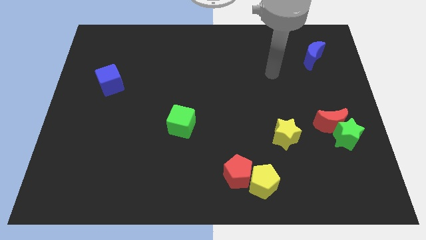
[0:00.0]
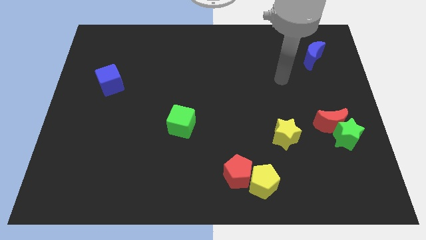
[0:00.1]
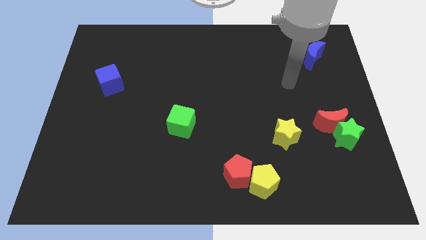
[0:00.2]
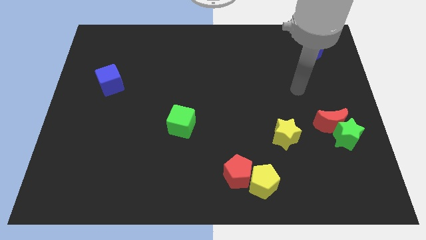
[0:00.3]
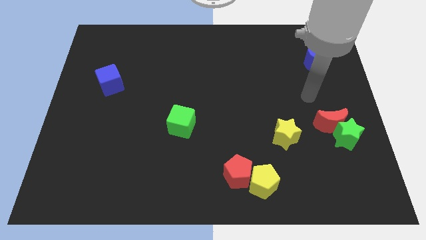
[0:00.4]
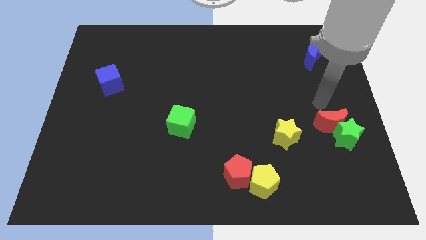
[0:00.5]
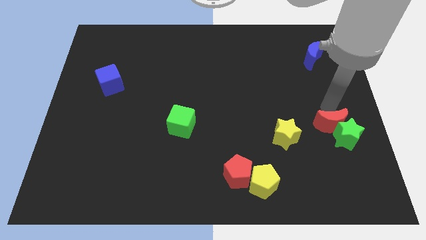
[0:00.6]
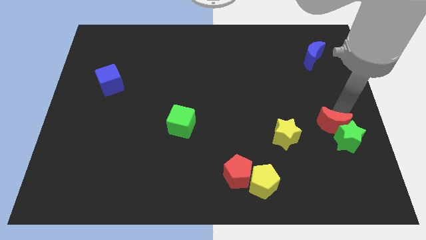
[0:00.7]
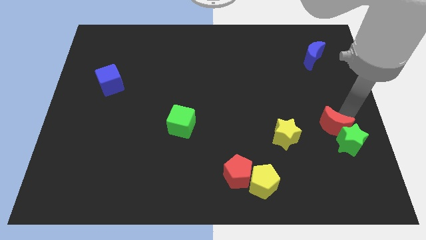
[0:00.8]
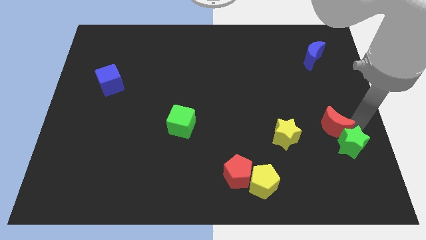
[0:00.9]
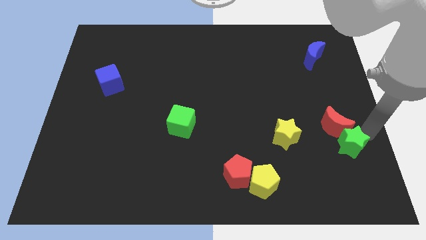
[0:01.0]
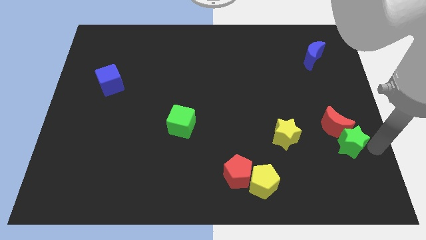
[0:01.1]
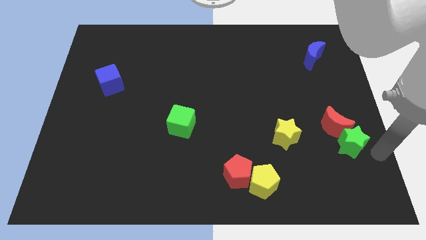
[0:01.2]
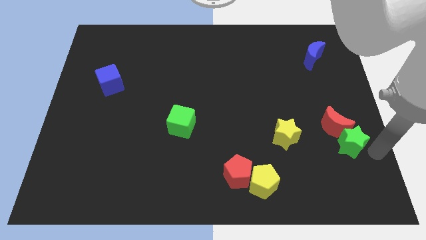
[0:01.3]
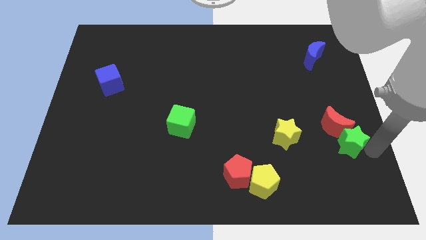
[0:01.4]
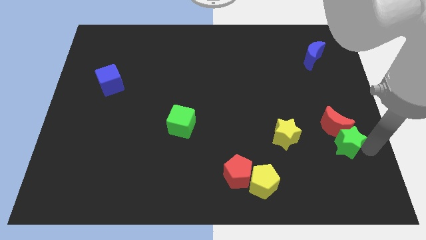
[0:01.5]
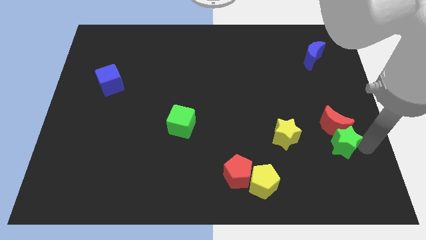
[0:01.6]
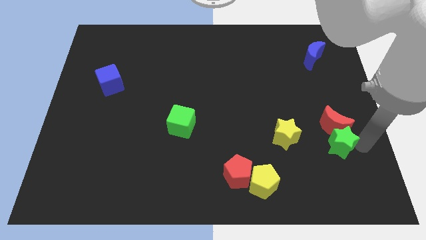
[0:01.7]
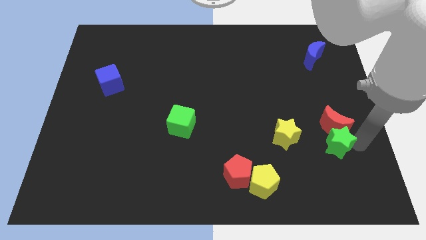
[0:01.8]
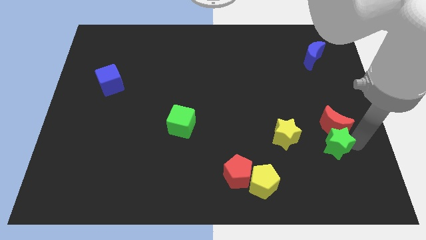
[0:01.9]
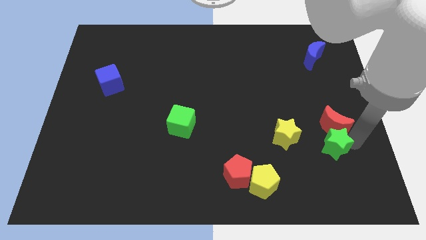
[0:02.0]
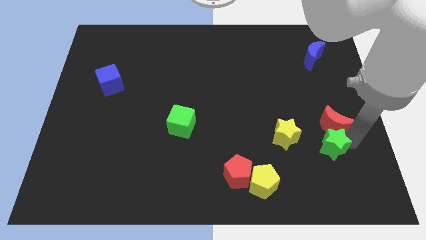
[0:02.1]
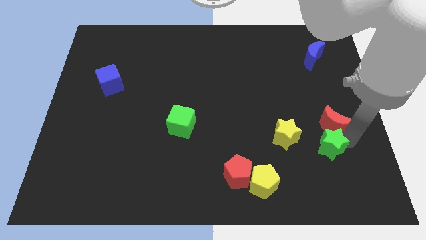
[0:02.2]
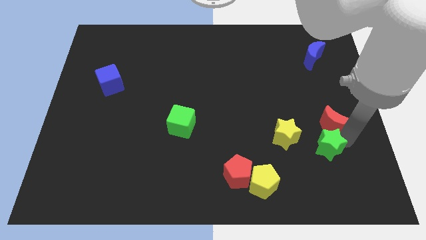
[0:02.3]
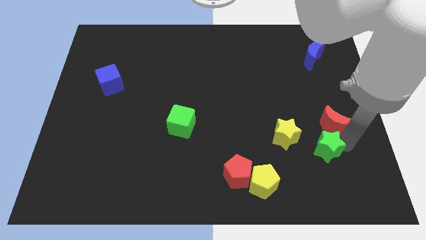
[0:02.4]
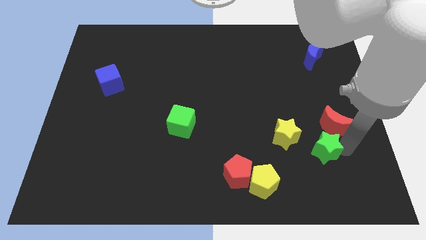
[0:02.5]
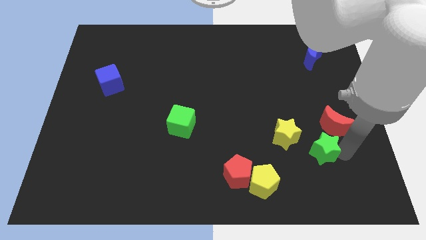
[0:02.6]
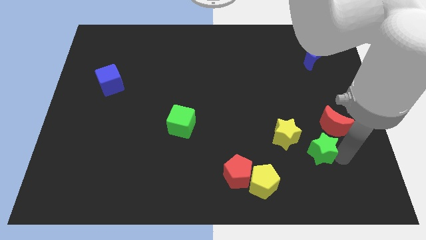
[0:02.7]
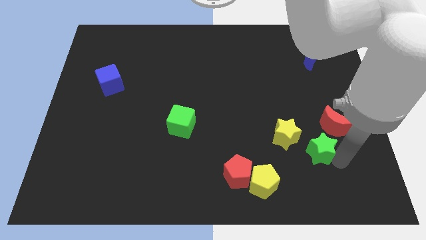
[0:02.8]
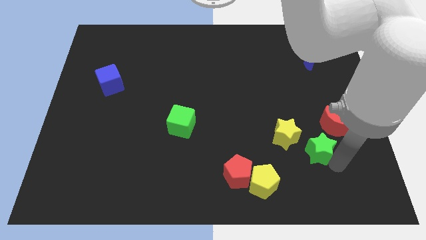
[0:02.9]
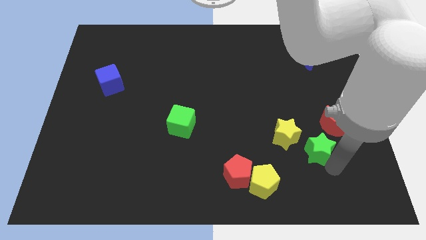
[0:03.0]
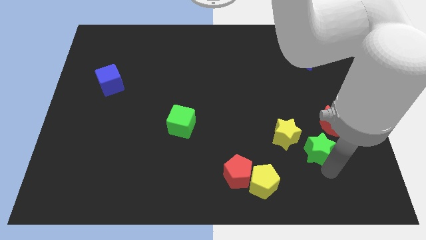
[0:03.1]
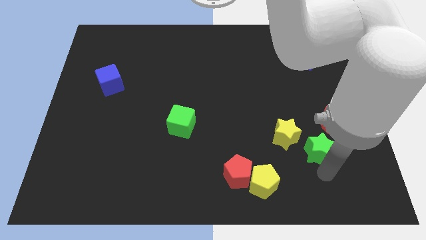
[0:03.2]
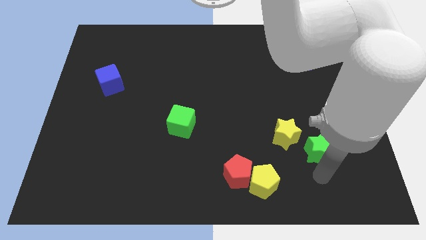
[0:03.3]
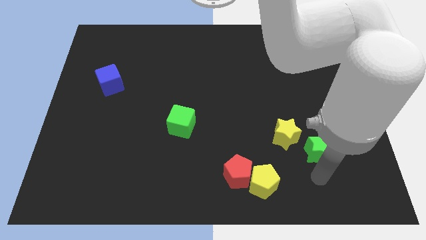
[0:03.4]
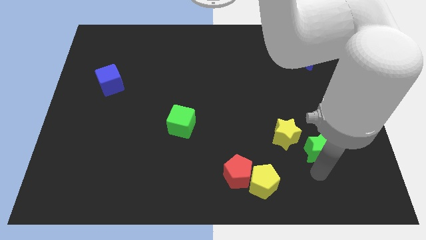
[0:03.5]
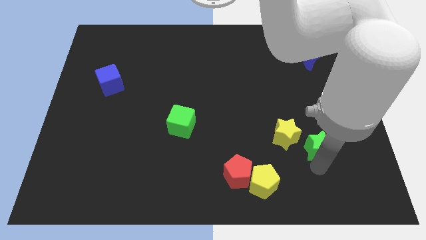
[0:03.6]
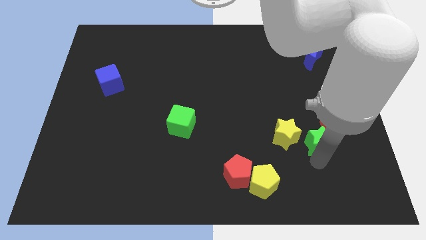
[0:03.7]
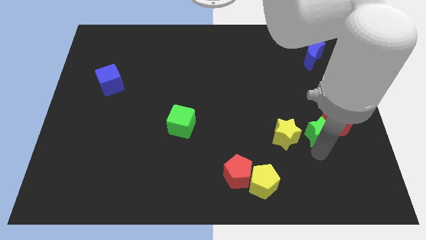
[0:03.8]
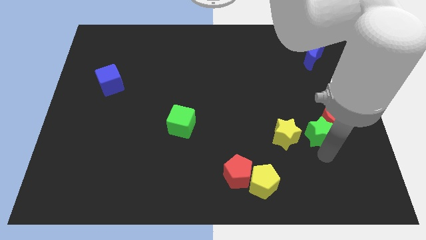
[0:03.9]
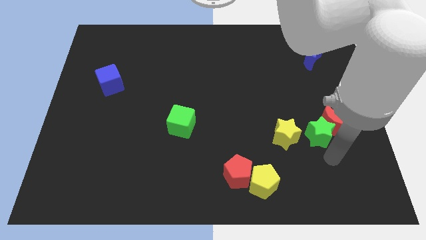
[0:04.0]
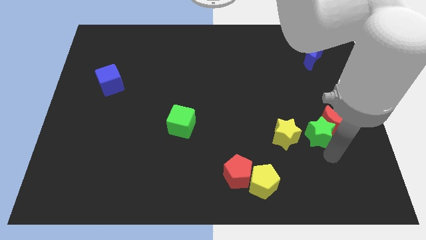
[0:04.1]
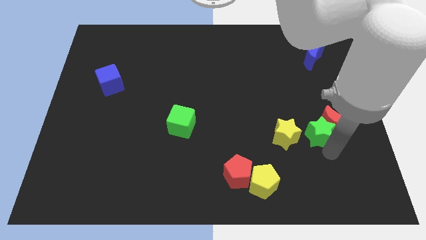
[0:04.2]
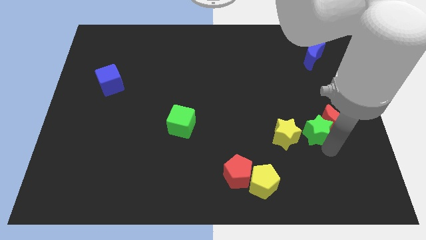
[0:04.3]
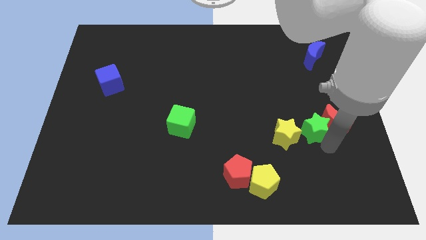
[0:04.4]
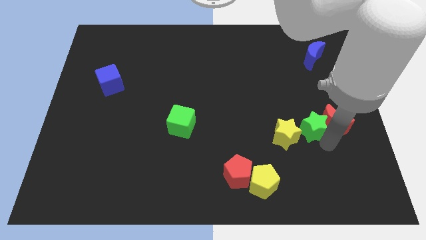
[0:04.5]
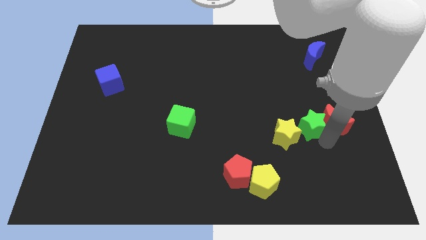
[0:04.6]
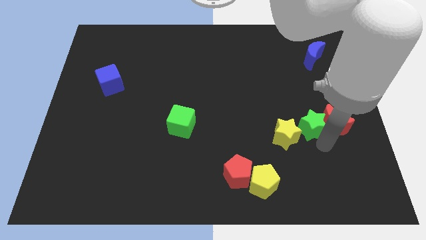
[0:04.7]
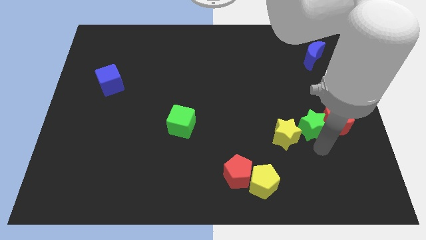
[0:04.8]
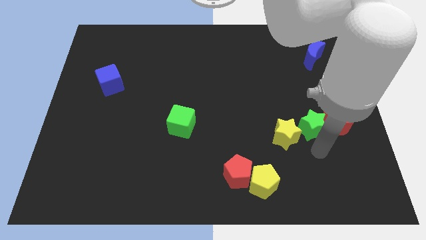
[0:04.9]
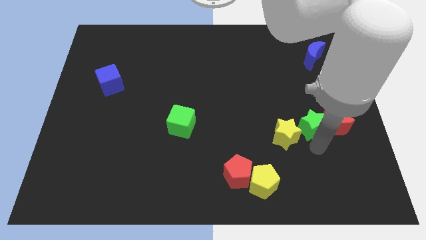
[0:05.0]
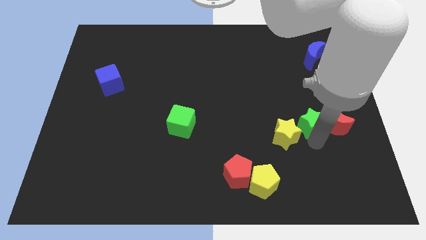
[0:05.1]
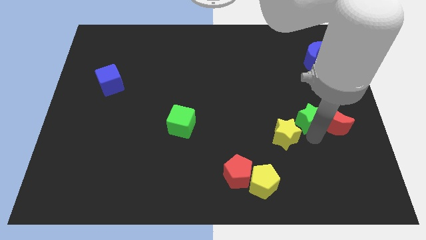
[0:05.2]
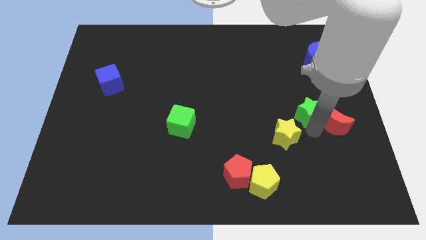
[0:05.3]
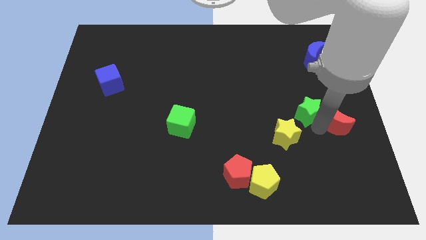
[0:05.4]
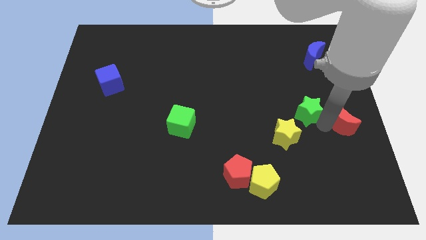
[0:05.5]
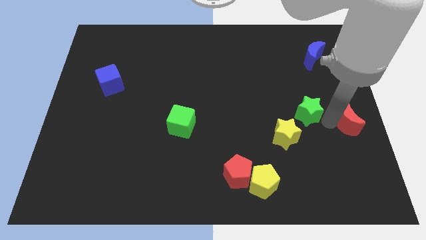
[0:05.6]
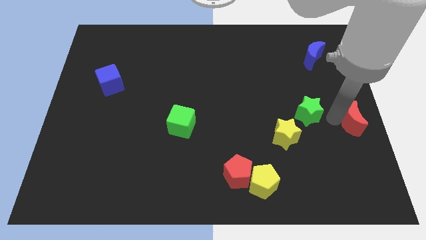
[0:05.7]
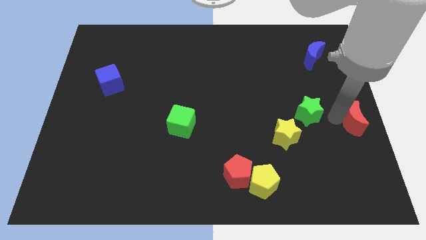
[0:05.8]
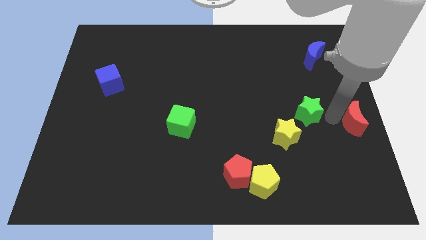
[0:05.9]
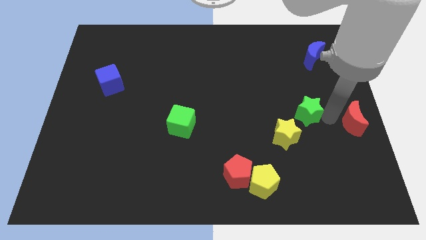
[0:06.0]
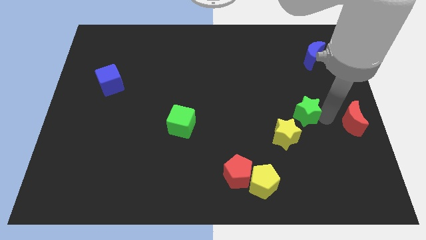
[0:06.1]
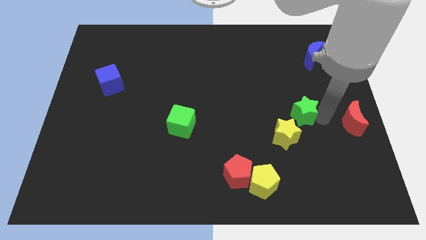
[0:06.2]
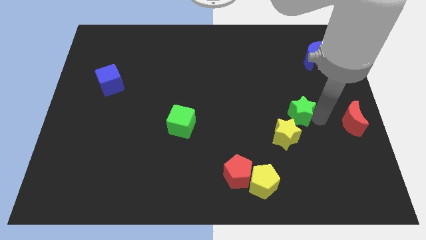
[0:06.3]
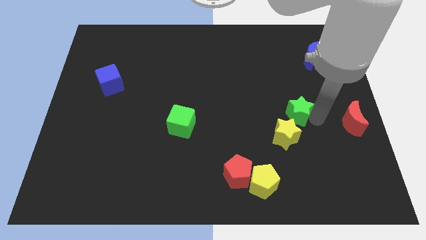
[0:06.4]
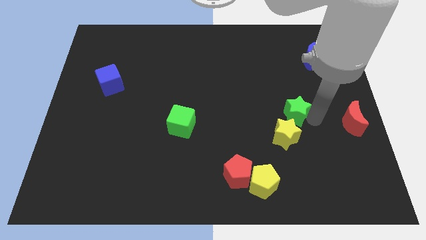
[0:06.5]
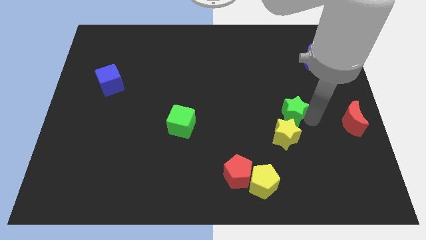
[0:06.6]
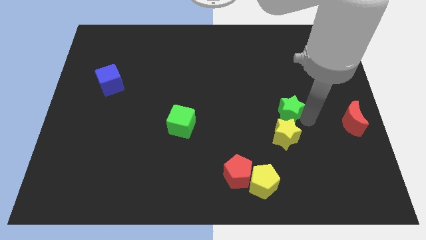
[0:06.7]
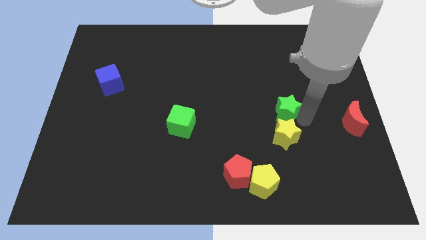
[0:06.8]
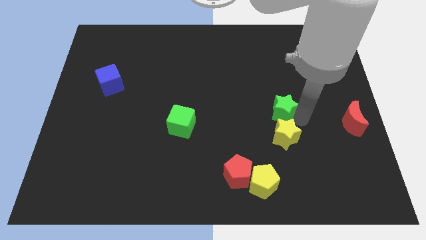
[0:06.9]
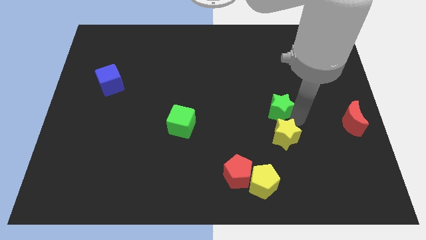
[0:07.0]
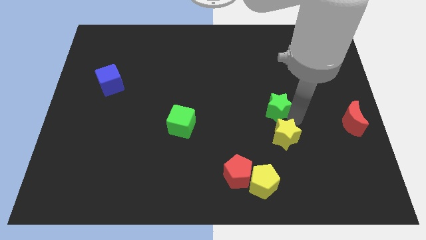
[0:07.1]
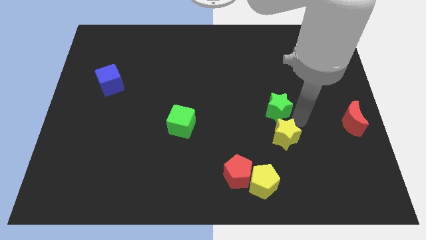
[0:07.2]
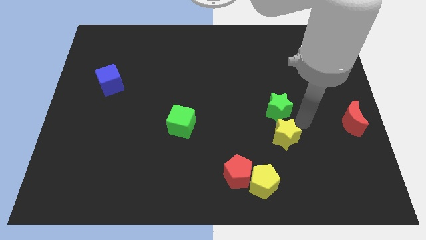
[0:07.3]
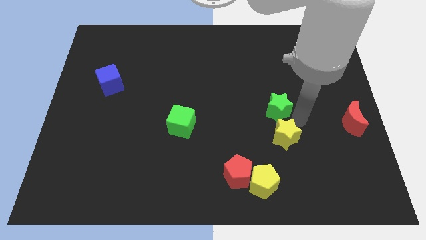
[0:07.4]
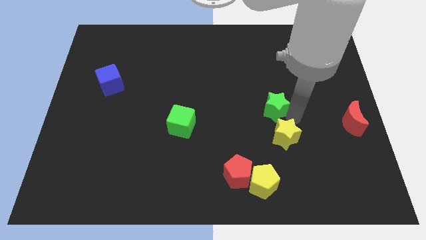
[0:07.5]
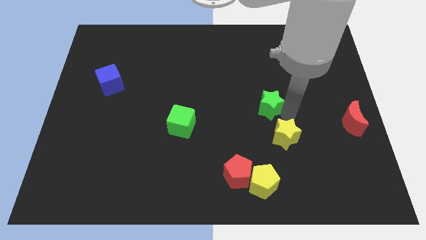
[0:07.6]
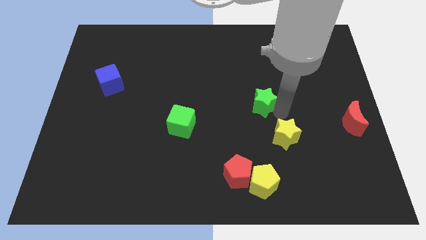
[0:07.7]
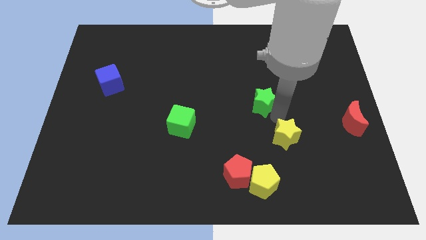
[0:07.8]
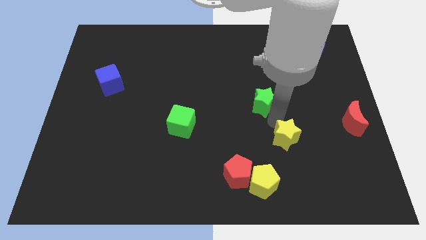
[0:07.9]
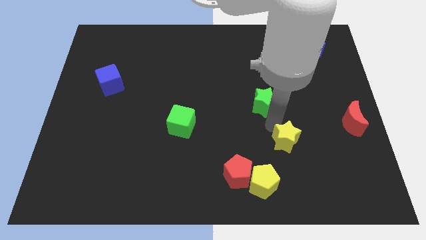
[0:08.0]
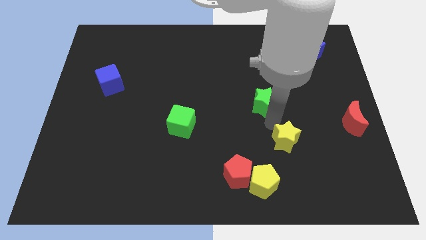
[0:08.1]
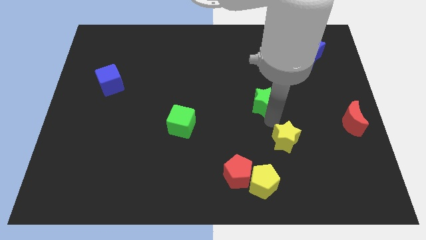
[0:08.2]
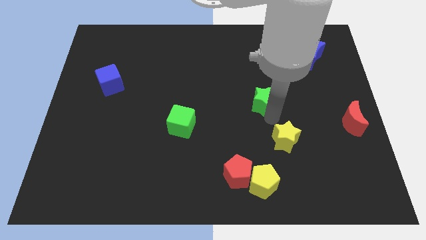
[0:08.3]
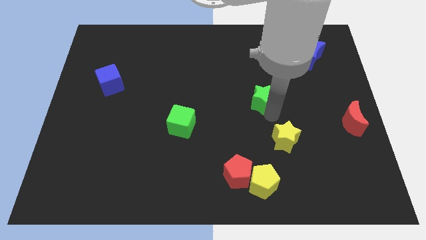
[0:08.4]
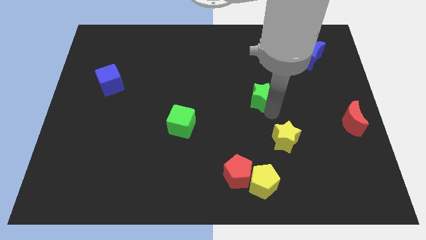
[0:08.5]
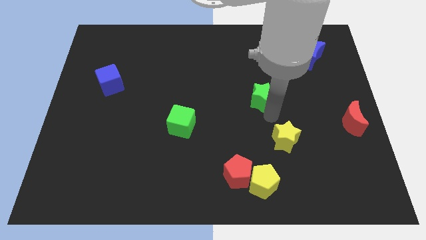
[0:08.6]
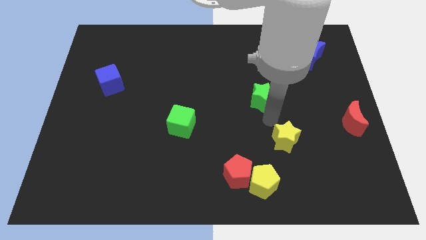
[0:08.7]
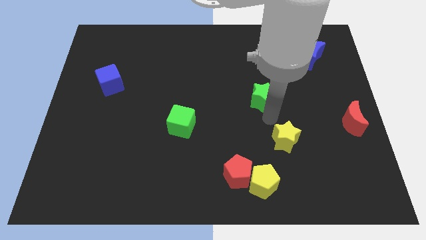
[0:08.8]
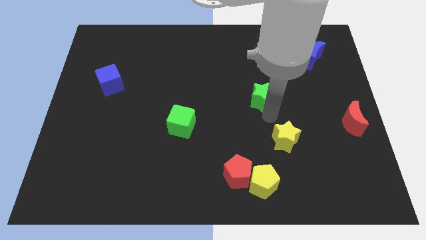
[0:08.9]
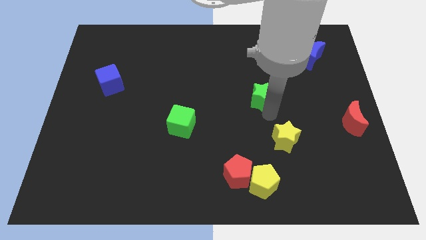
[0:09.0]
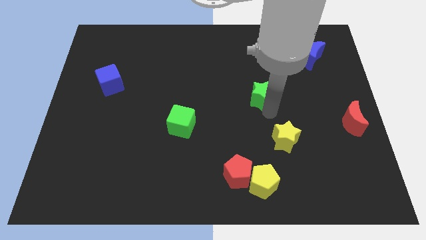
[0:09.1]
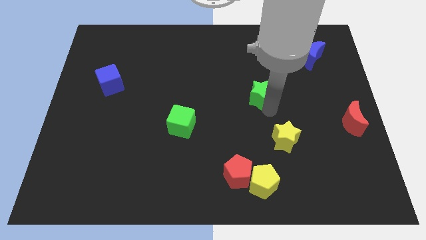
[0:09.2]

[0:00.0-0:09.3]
push the green star diagonally upwards and to the left
